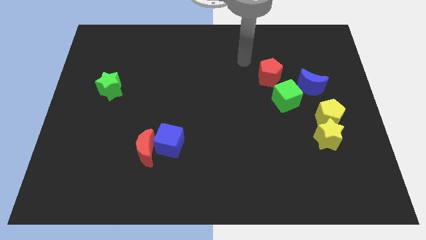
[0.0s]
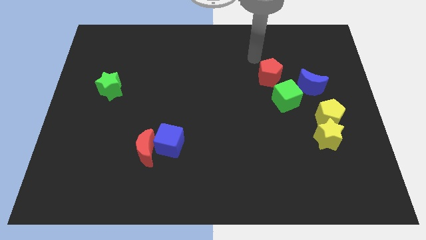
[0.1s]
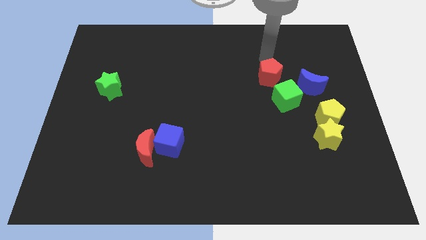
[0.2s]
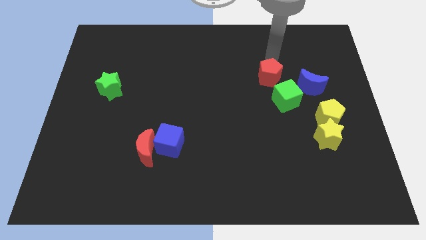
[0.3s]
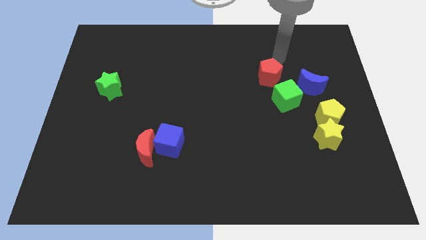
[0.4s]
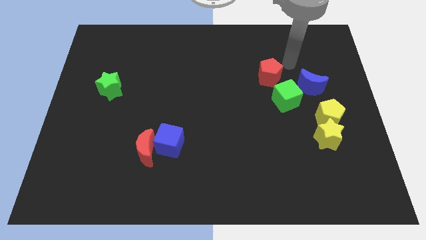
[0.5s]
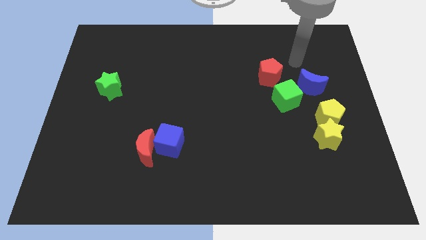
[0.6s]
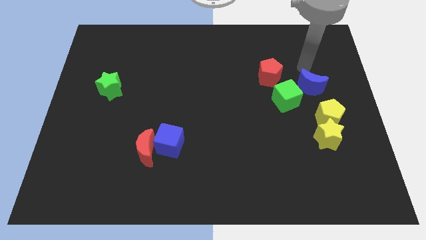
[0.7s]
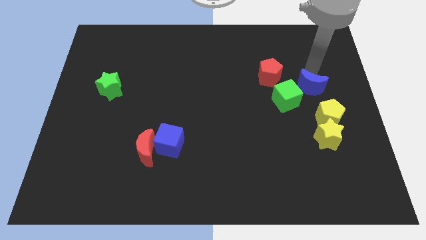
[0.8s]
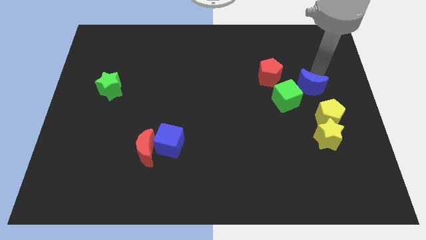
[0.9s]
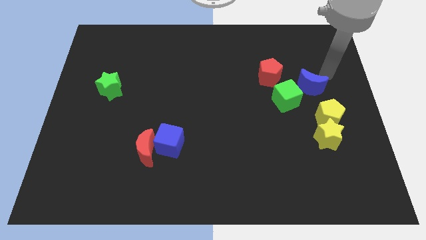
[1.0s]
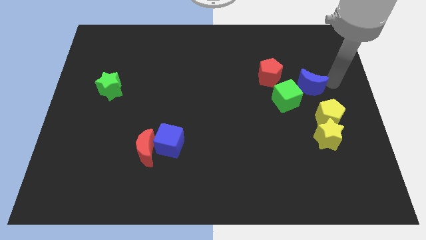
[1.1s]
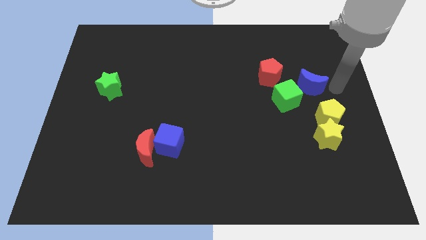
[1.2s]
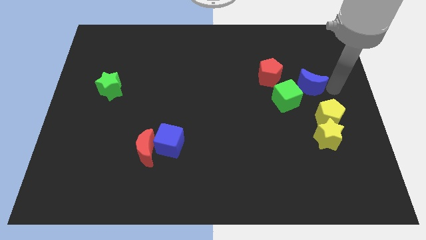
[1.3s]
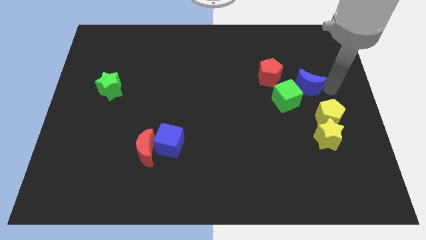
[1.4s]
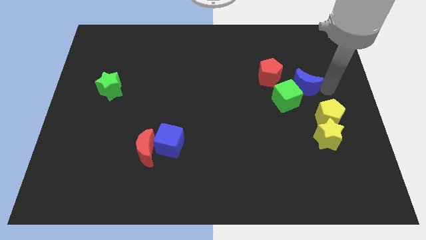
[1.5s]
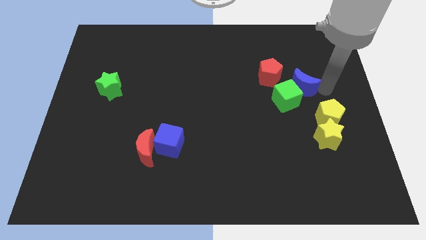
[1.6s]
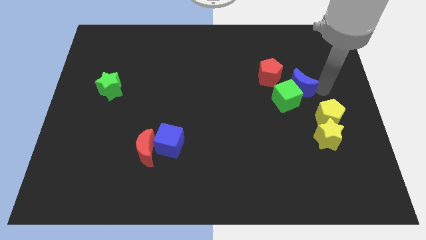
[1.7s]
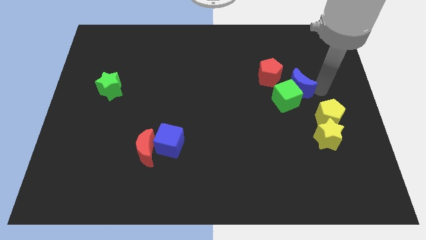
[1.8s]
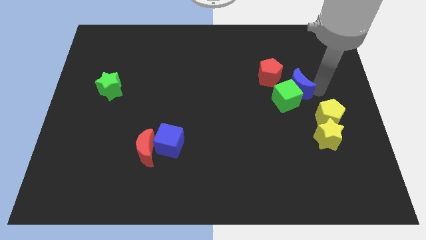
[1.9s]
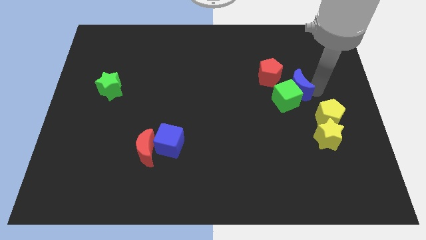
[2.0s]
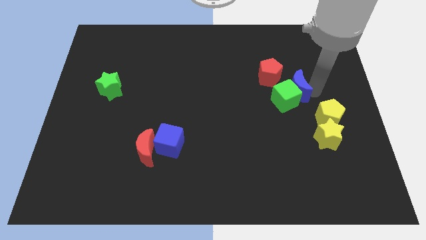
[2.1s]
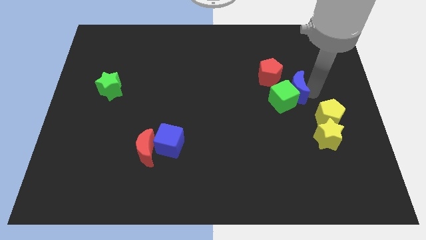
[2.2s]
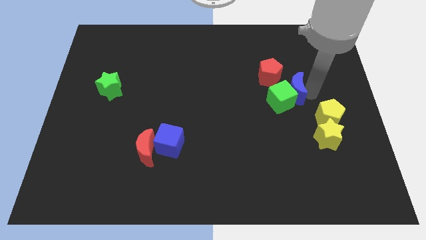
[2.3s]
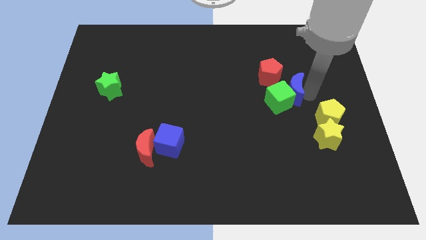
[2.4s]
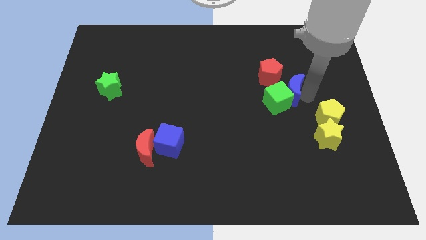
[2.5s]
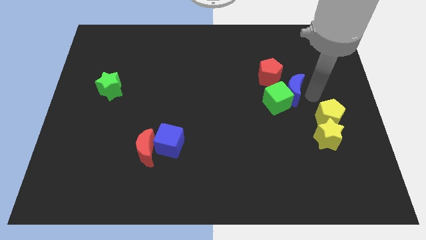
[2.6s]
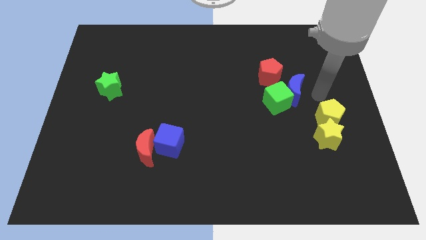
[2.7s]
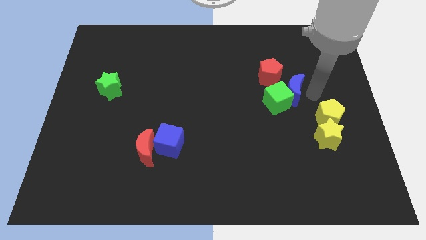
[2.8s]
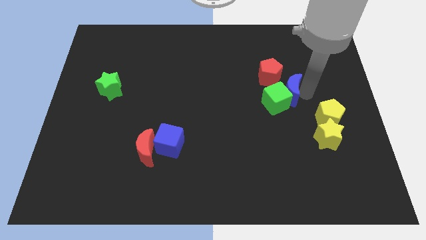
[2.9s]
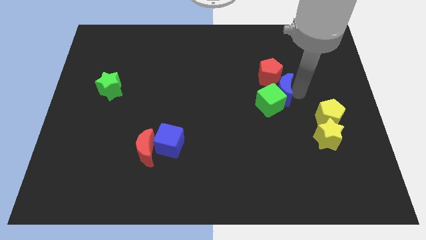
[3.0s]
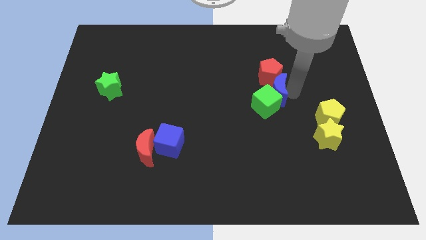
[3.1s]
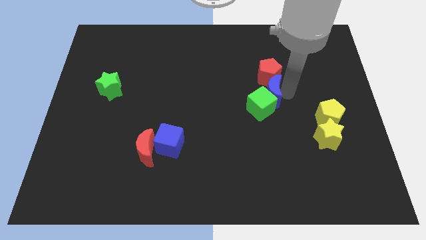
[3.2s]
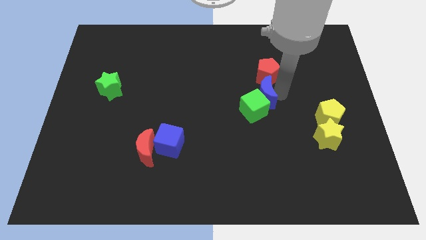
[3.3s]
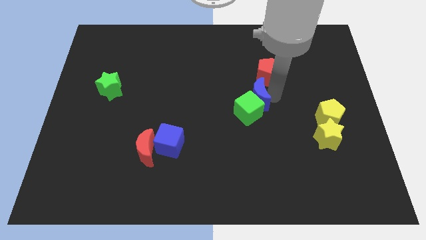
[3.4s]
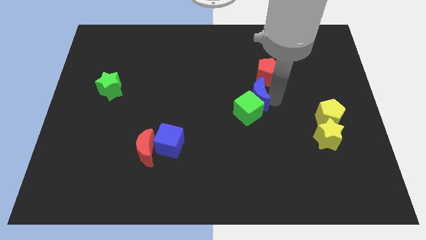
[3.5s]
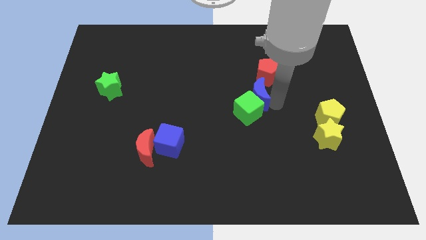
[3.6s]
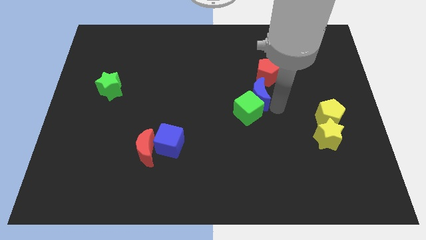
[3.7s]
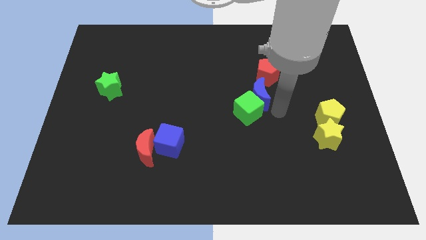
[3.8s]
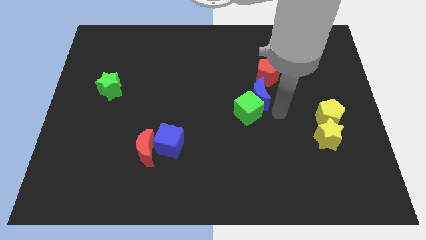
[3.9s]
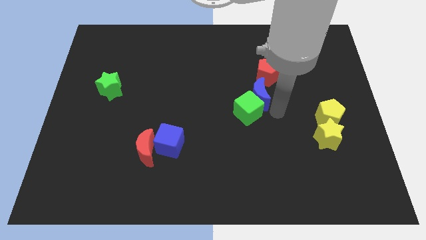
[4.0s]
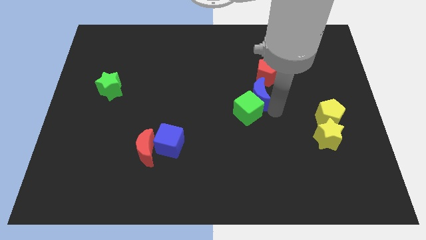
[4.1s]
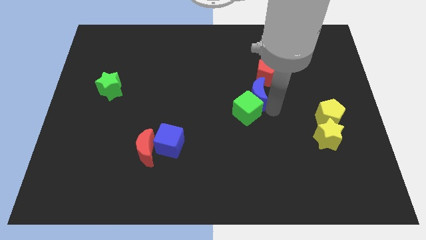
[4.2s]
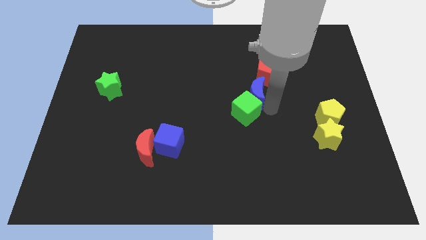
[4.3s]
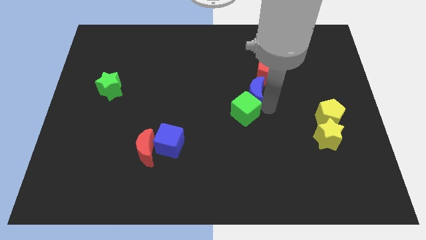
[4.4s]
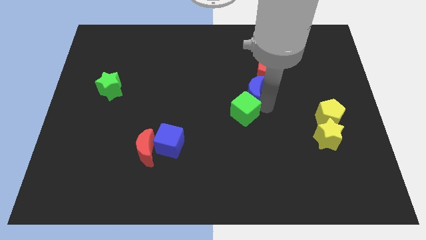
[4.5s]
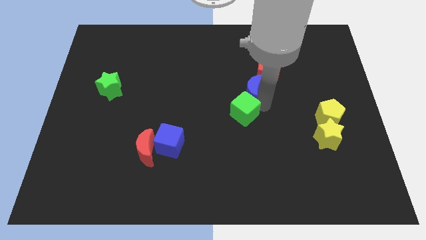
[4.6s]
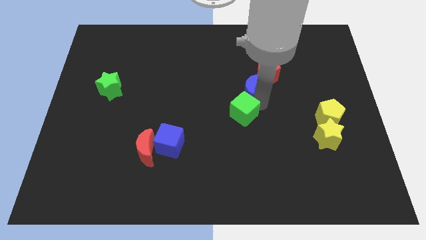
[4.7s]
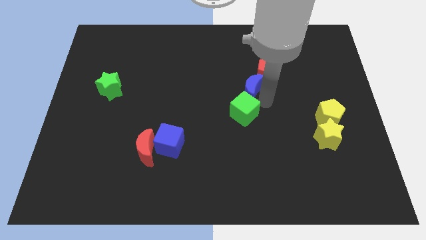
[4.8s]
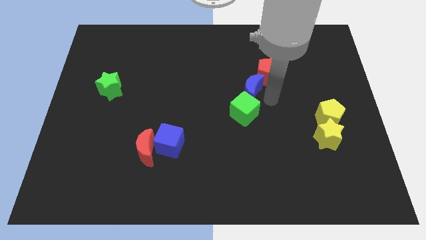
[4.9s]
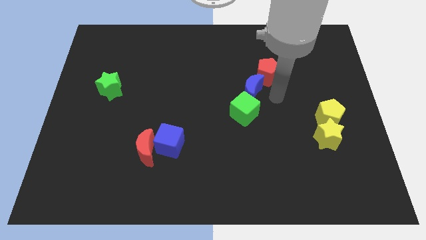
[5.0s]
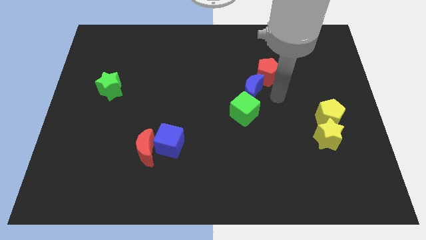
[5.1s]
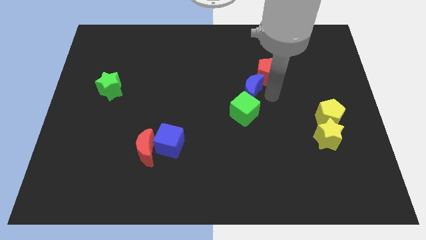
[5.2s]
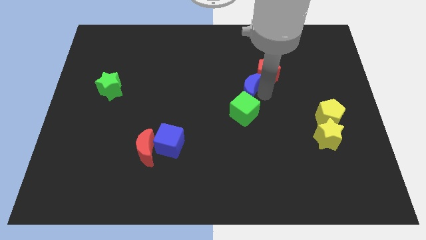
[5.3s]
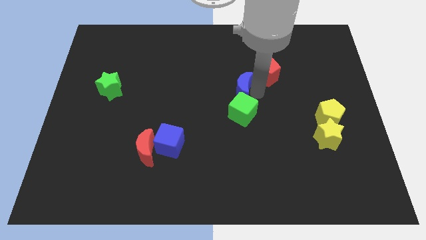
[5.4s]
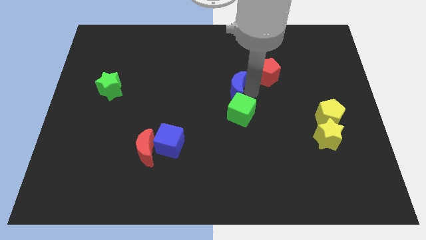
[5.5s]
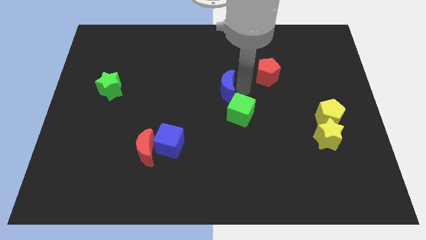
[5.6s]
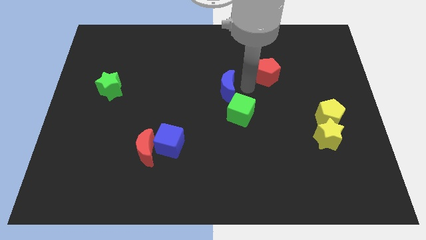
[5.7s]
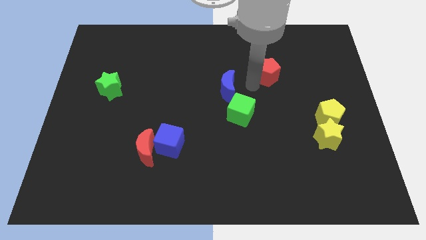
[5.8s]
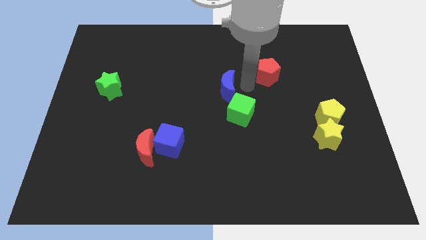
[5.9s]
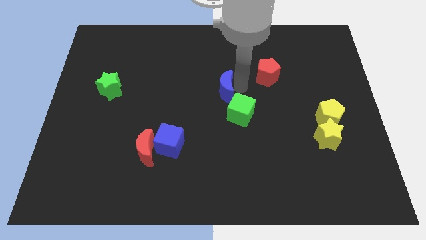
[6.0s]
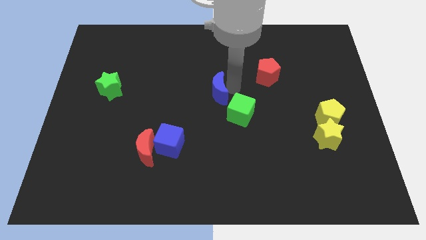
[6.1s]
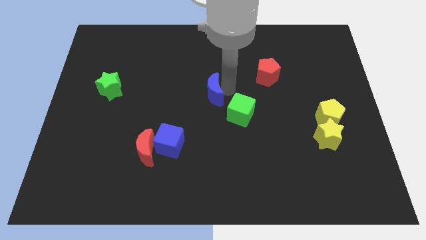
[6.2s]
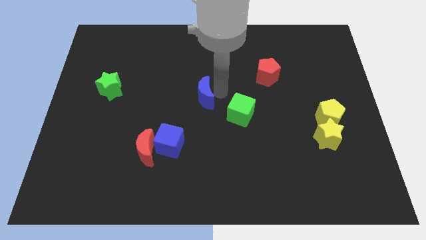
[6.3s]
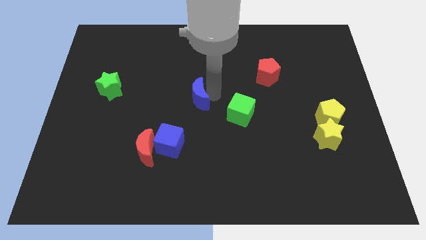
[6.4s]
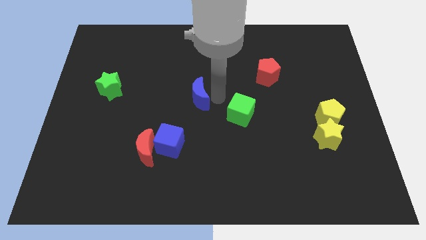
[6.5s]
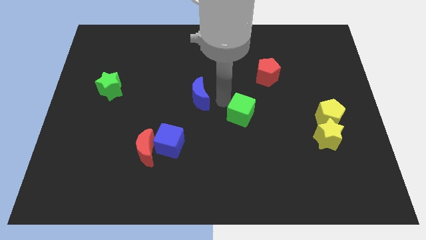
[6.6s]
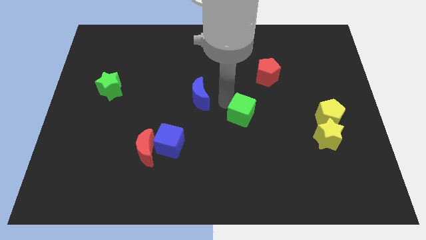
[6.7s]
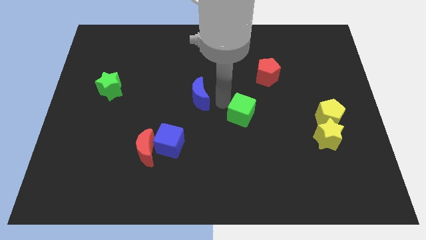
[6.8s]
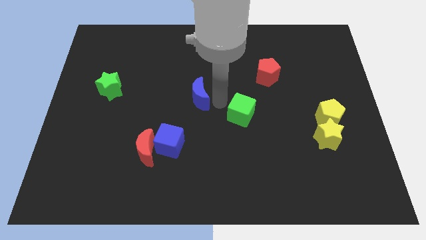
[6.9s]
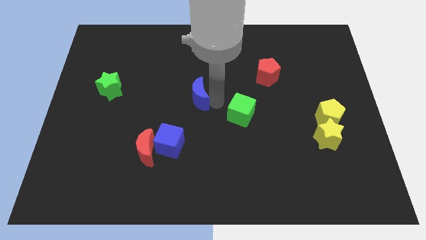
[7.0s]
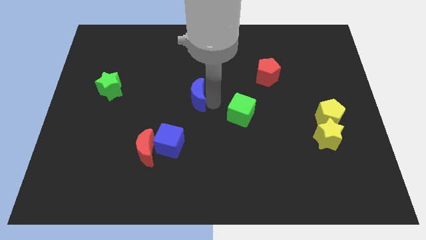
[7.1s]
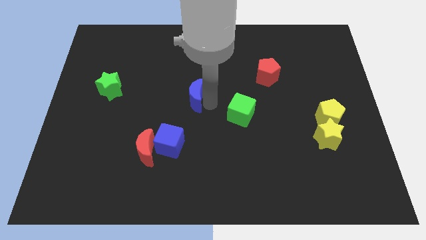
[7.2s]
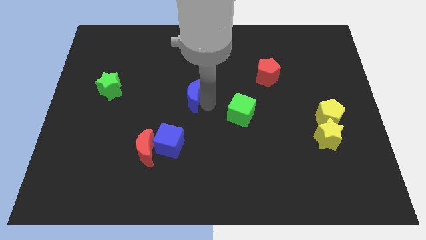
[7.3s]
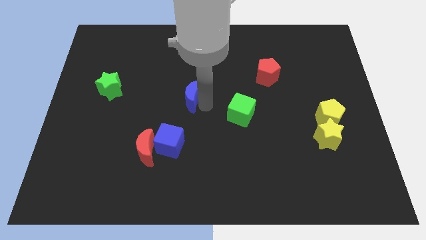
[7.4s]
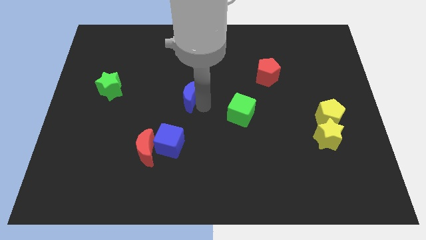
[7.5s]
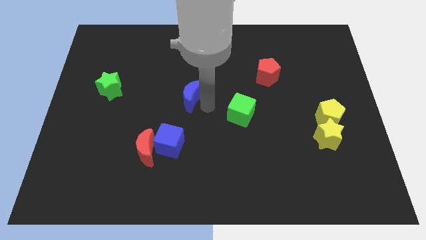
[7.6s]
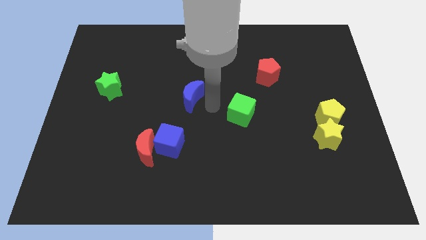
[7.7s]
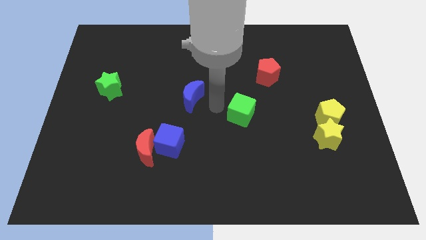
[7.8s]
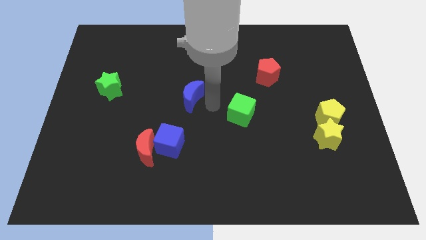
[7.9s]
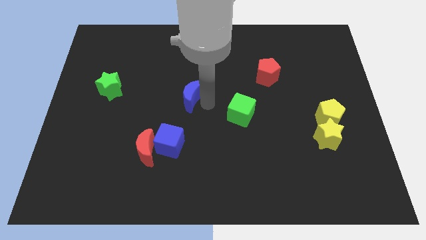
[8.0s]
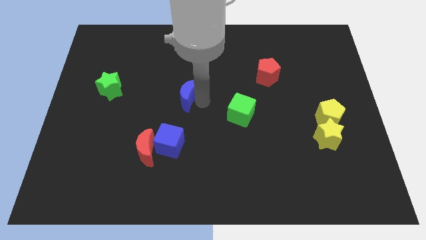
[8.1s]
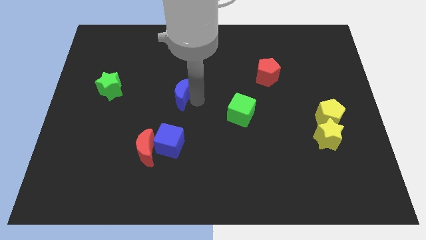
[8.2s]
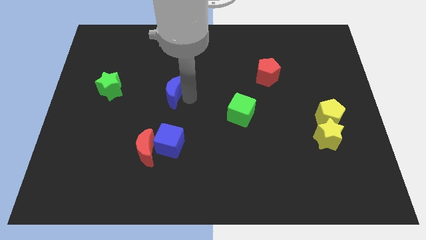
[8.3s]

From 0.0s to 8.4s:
move the blue moon just right of the green star

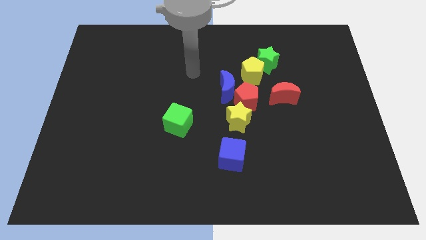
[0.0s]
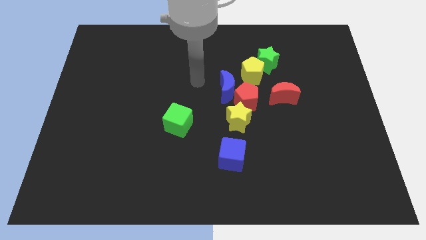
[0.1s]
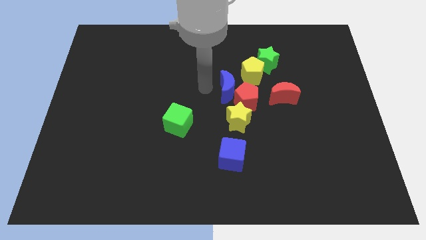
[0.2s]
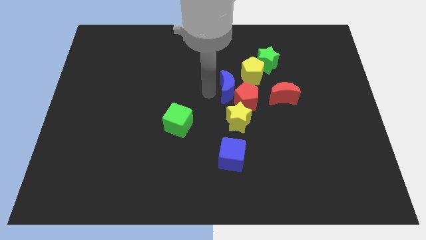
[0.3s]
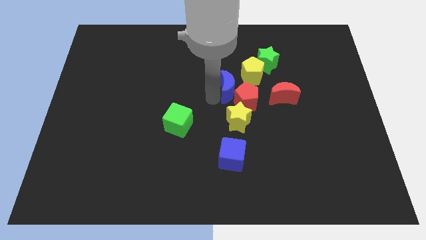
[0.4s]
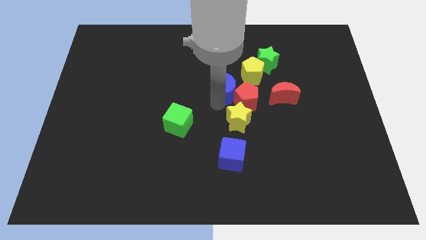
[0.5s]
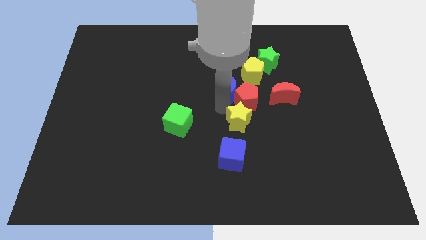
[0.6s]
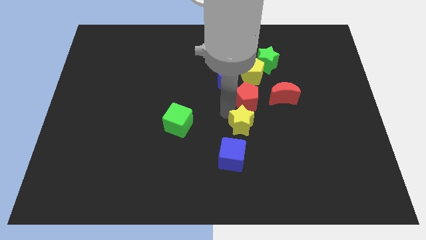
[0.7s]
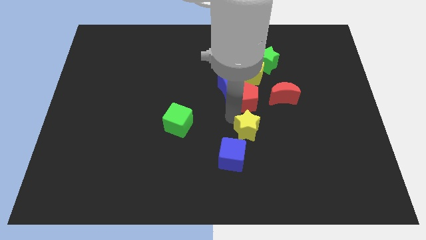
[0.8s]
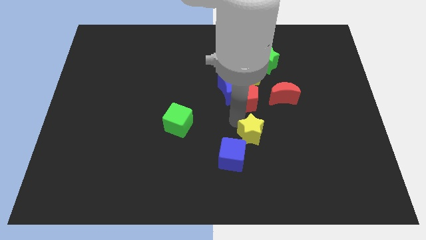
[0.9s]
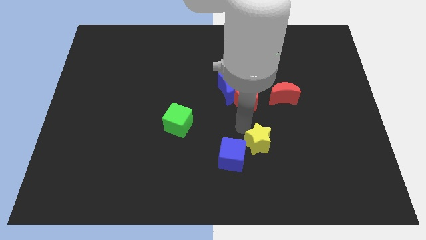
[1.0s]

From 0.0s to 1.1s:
put the yellow star just right of the blue cube
